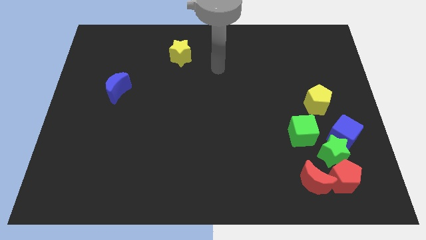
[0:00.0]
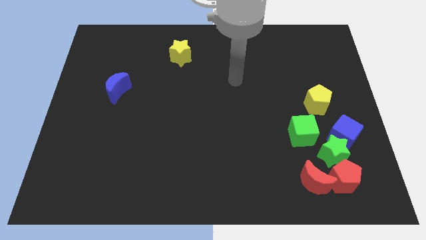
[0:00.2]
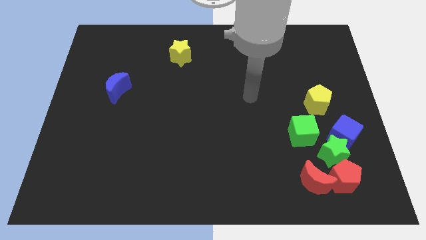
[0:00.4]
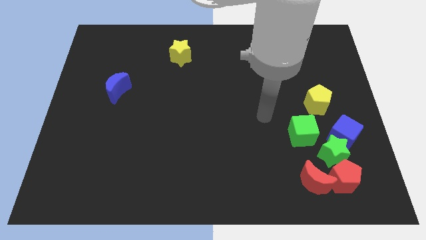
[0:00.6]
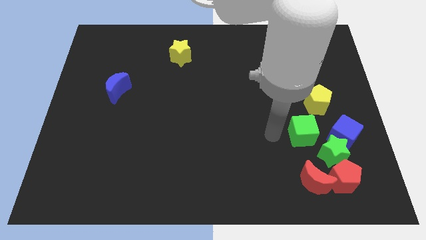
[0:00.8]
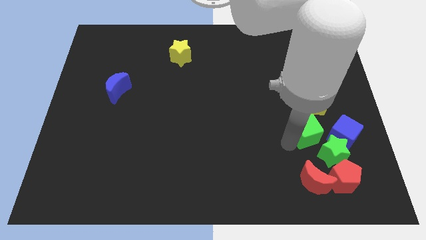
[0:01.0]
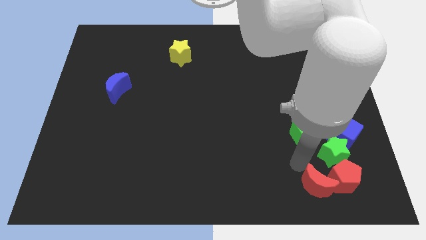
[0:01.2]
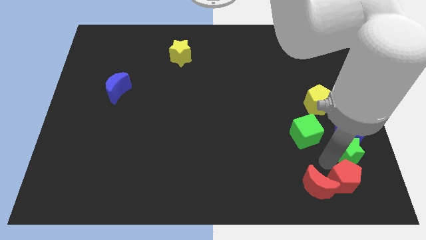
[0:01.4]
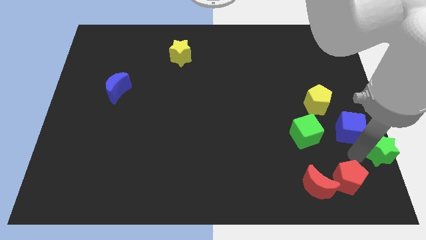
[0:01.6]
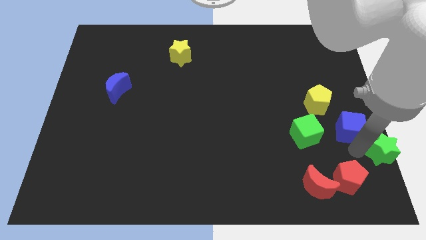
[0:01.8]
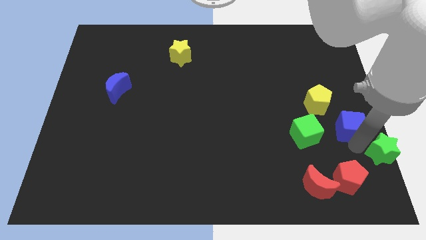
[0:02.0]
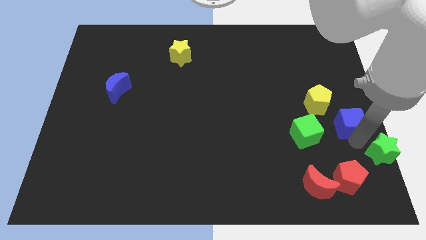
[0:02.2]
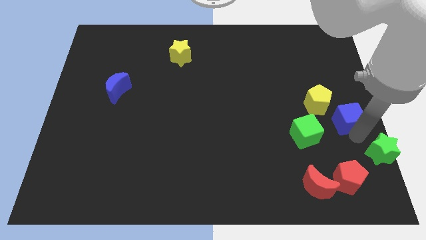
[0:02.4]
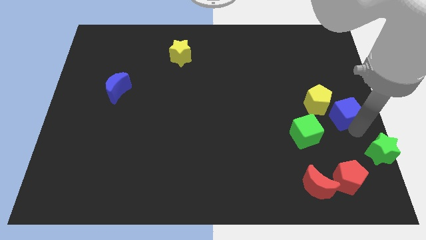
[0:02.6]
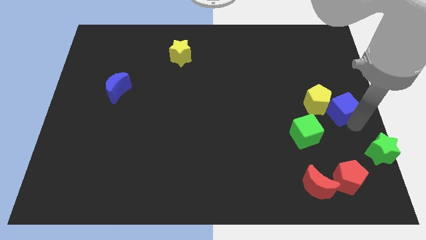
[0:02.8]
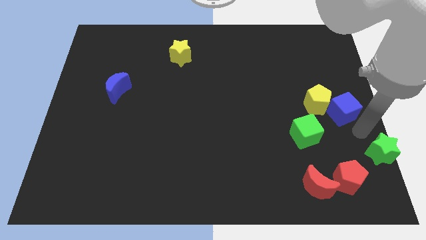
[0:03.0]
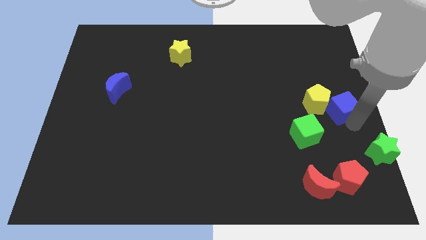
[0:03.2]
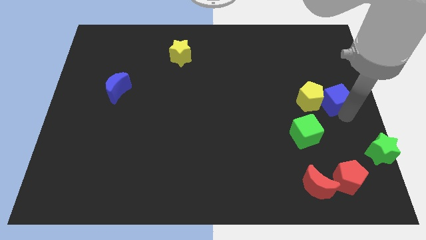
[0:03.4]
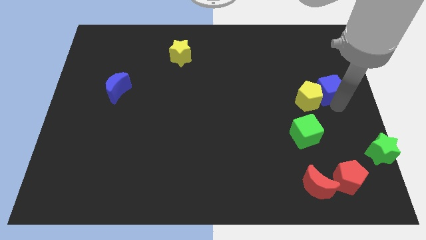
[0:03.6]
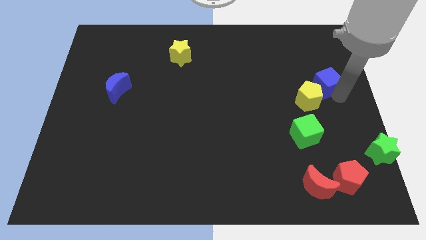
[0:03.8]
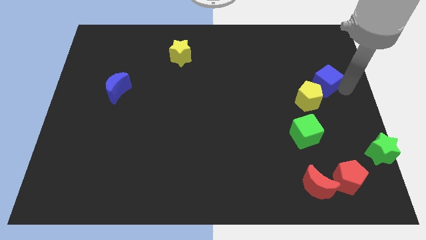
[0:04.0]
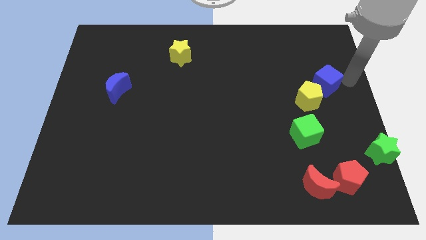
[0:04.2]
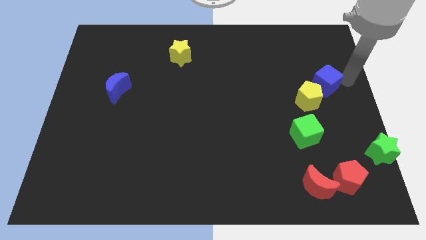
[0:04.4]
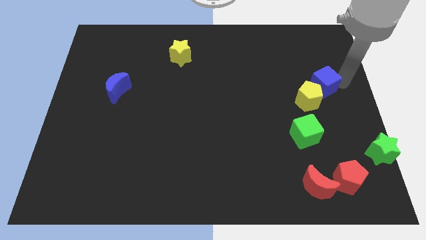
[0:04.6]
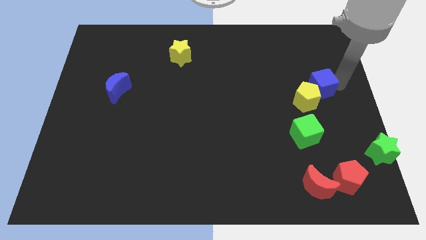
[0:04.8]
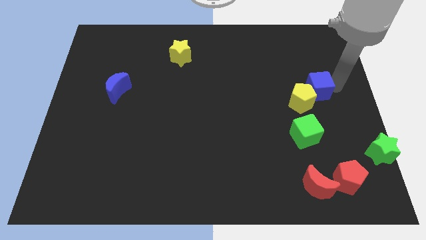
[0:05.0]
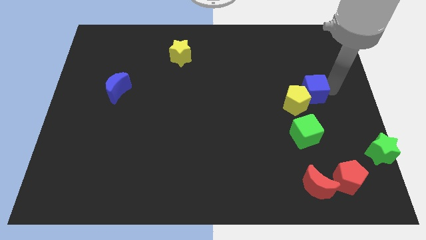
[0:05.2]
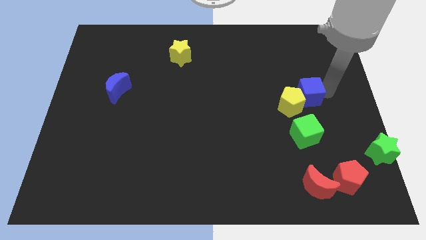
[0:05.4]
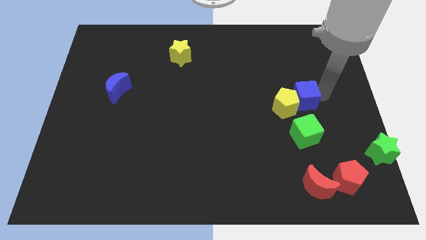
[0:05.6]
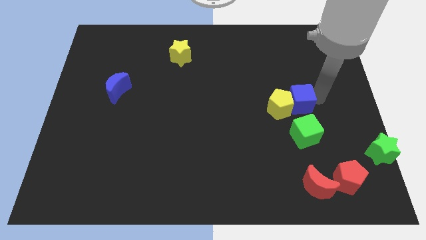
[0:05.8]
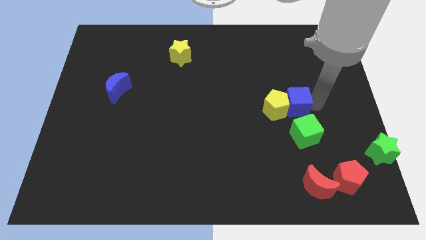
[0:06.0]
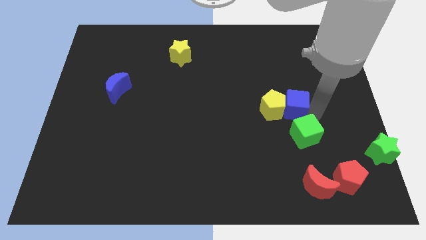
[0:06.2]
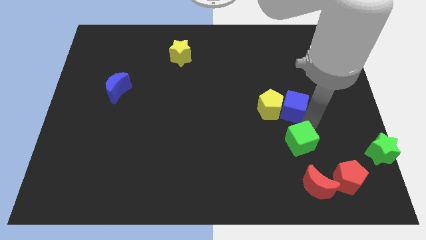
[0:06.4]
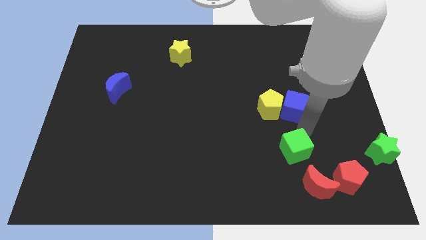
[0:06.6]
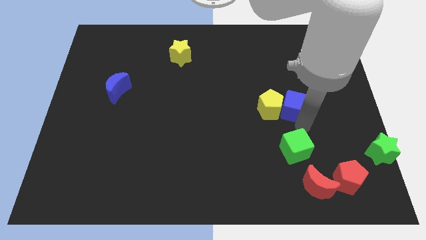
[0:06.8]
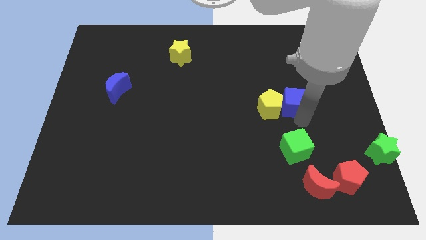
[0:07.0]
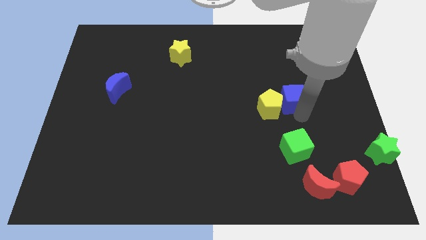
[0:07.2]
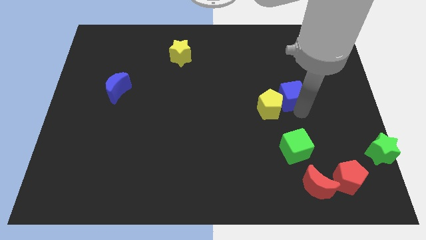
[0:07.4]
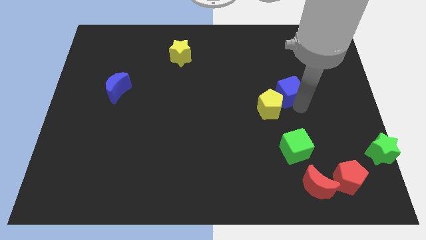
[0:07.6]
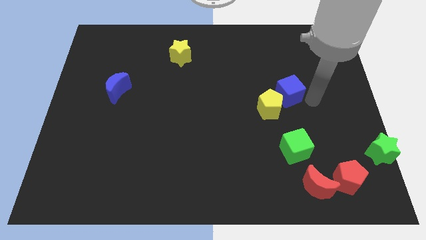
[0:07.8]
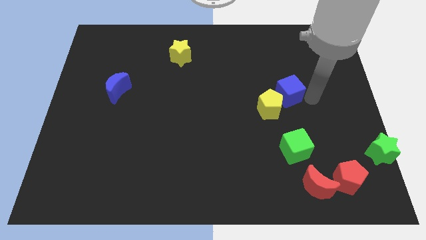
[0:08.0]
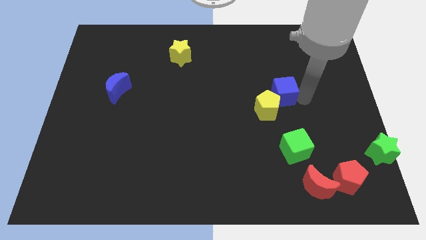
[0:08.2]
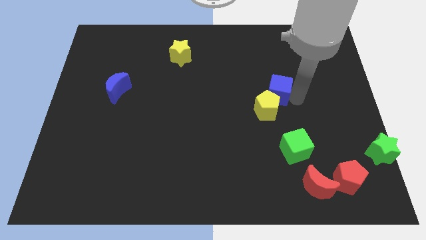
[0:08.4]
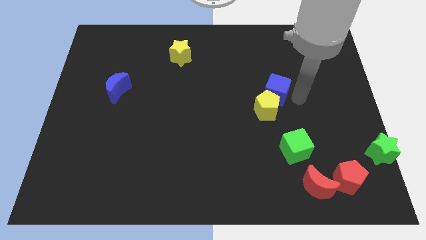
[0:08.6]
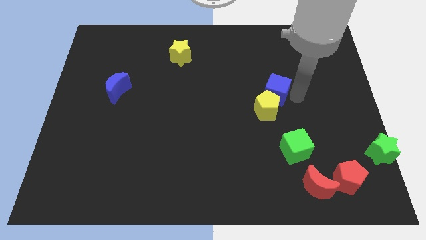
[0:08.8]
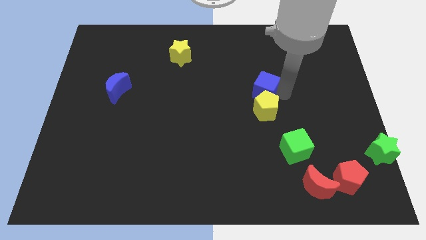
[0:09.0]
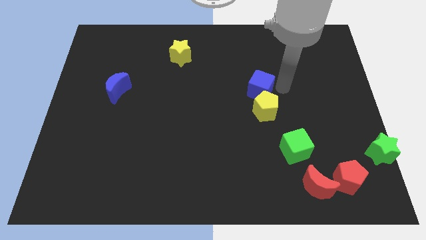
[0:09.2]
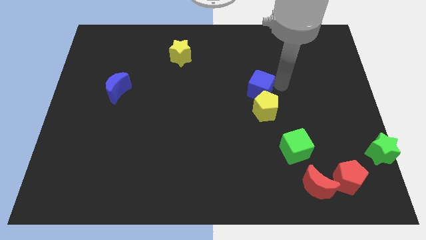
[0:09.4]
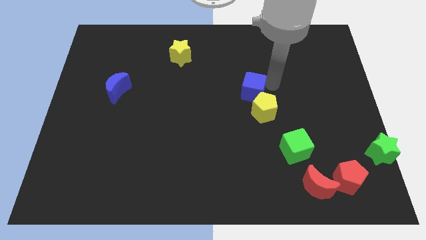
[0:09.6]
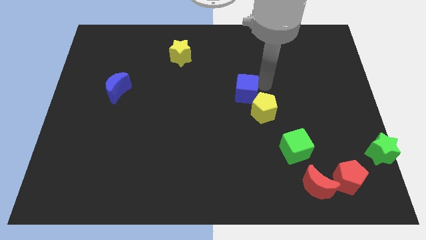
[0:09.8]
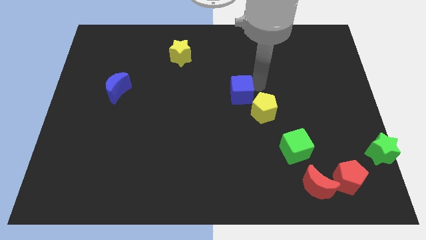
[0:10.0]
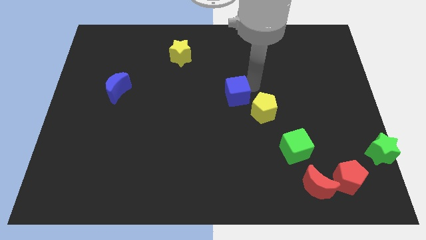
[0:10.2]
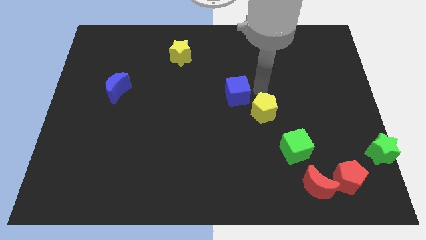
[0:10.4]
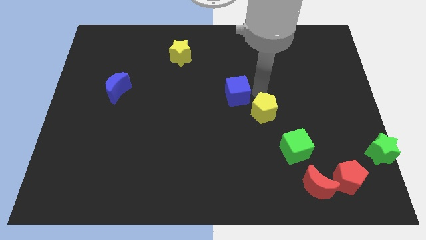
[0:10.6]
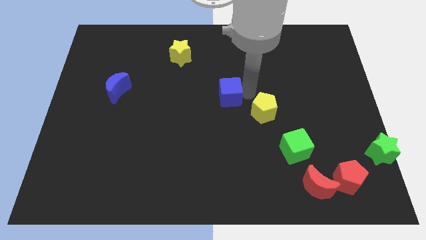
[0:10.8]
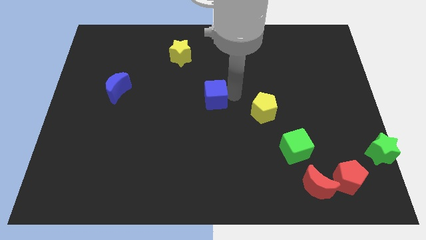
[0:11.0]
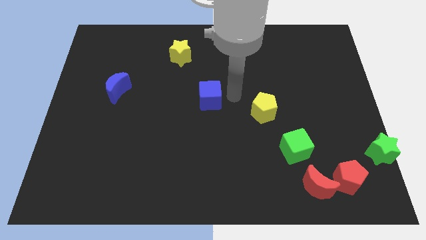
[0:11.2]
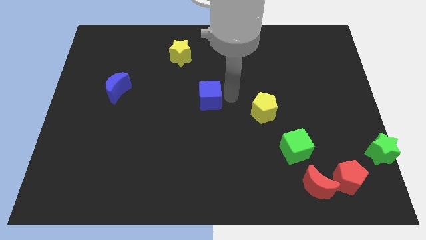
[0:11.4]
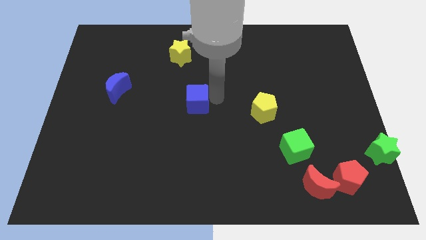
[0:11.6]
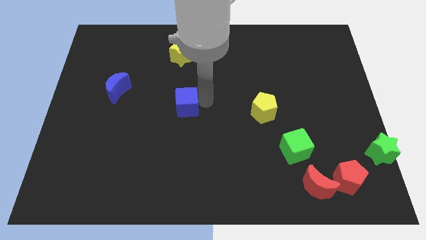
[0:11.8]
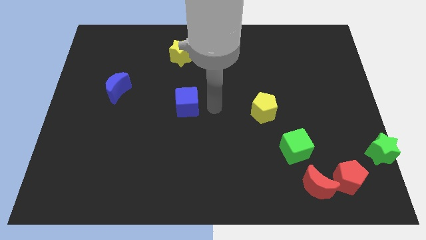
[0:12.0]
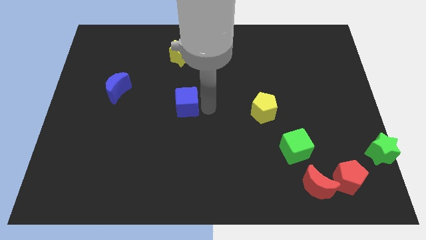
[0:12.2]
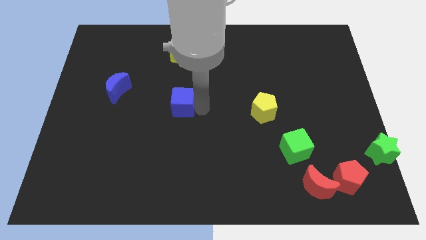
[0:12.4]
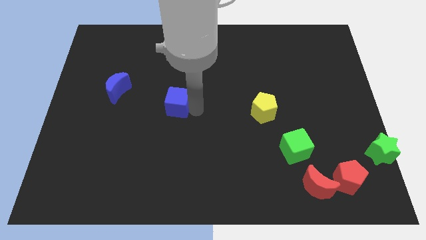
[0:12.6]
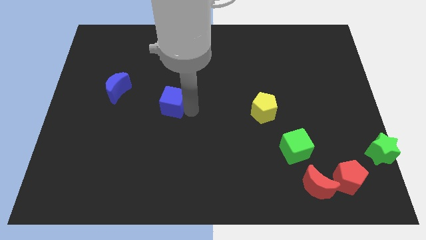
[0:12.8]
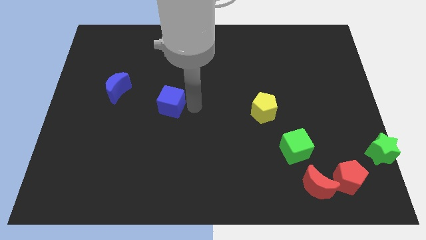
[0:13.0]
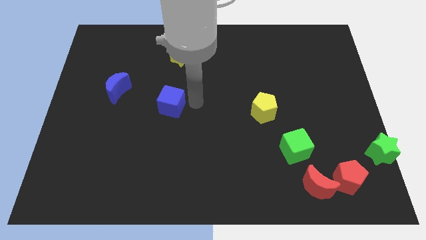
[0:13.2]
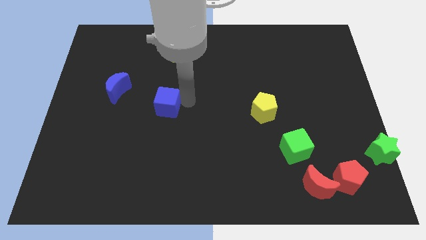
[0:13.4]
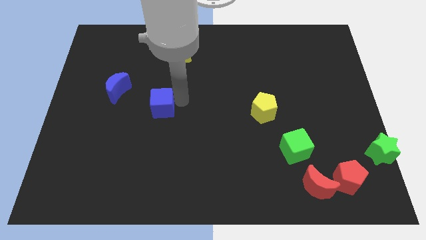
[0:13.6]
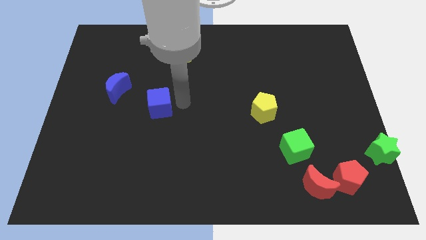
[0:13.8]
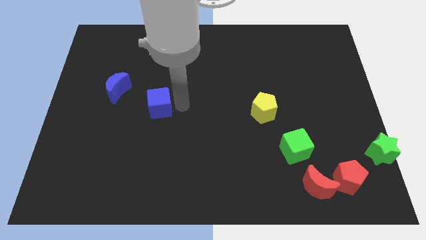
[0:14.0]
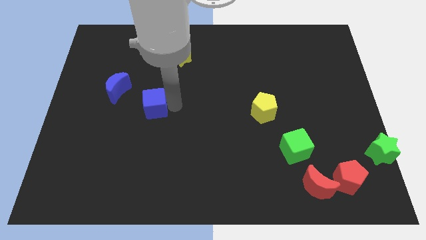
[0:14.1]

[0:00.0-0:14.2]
push the blue cube to the bottom right side of the blue moon
